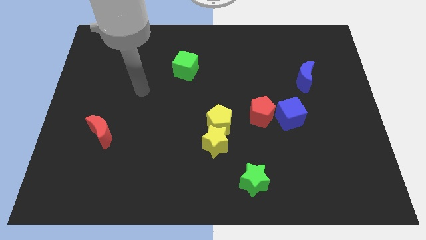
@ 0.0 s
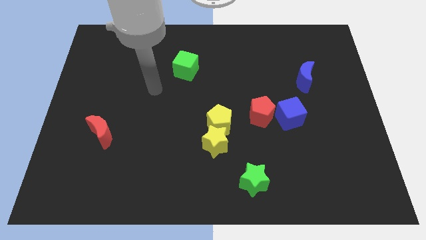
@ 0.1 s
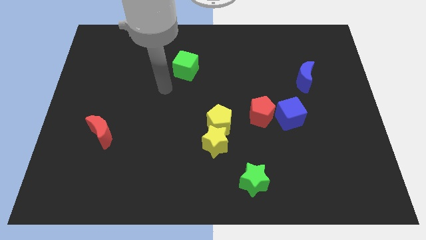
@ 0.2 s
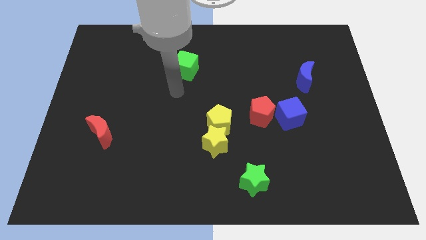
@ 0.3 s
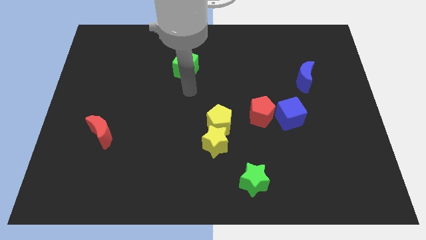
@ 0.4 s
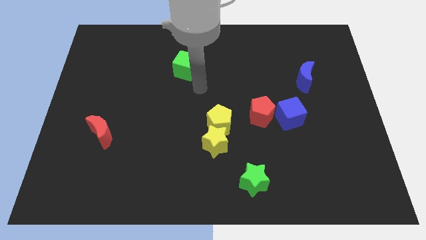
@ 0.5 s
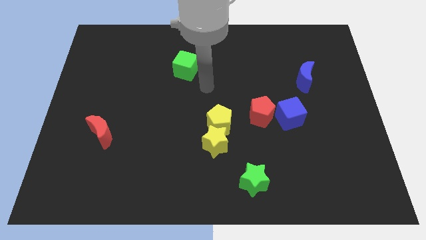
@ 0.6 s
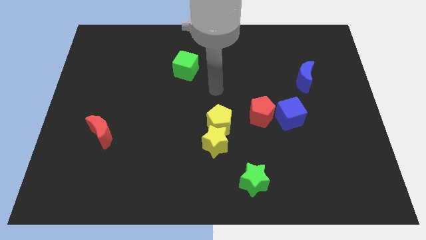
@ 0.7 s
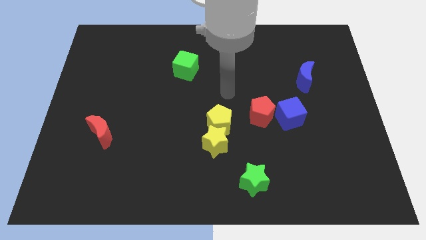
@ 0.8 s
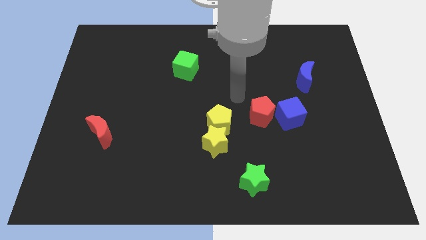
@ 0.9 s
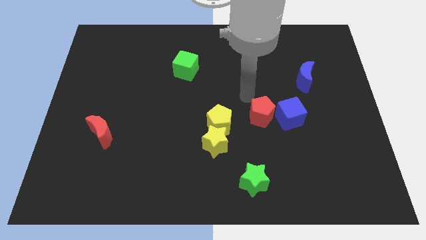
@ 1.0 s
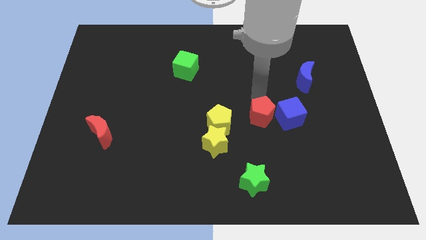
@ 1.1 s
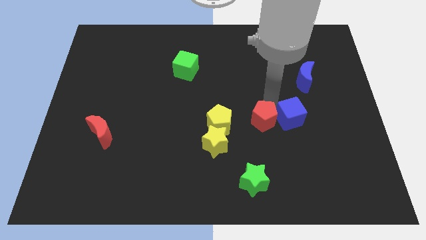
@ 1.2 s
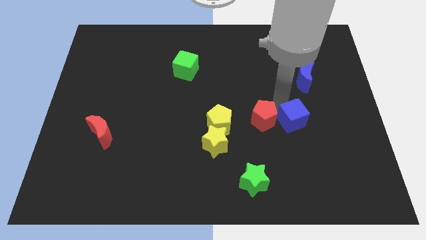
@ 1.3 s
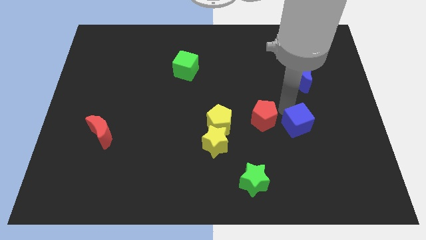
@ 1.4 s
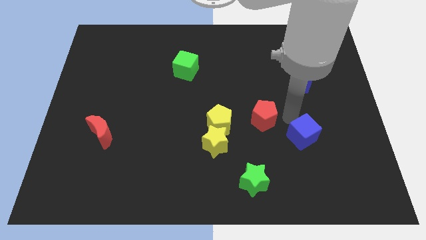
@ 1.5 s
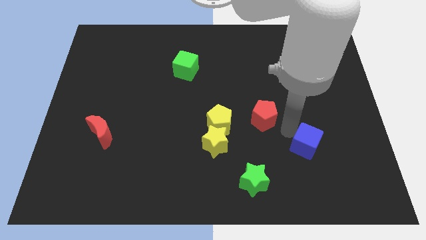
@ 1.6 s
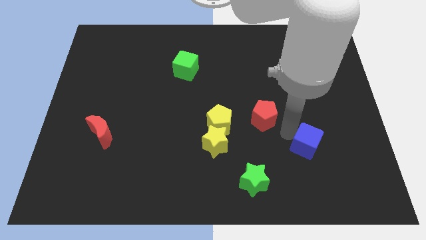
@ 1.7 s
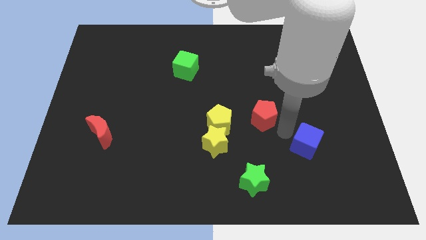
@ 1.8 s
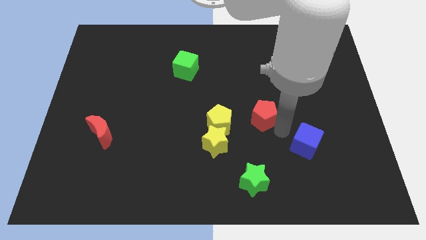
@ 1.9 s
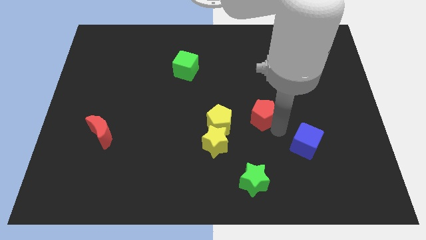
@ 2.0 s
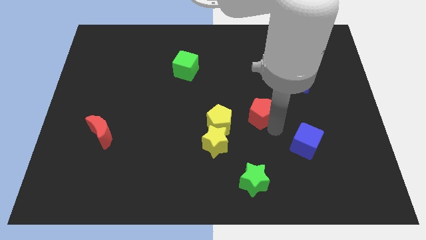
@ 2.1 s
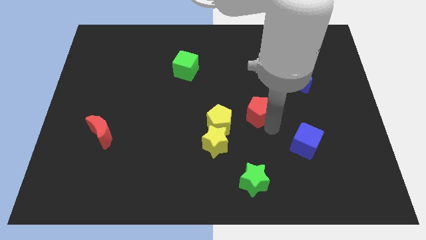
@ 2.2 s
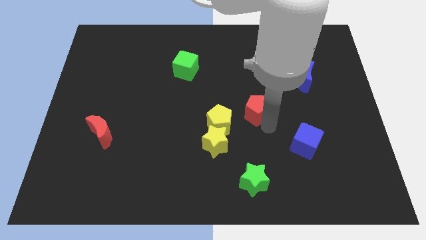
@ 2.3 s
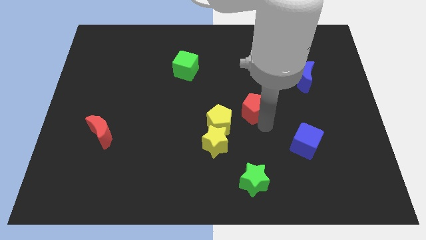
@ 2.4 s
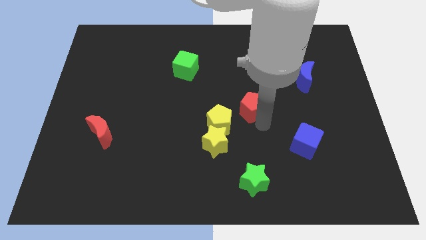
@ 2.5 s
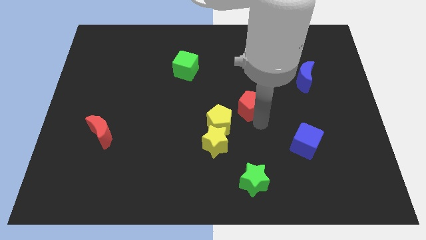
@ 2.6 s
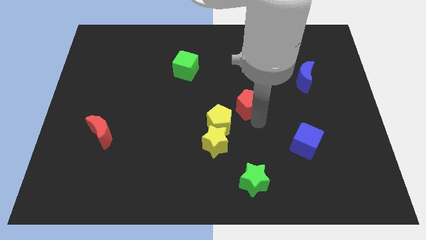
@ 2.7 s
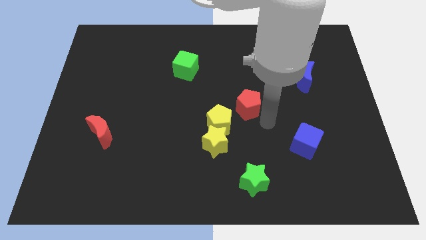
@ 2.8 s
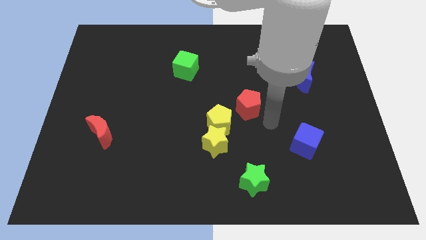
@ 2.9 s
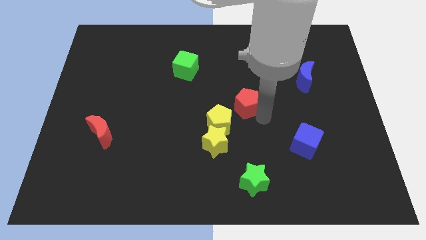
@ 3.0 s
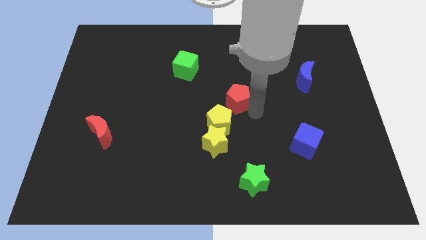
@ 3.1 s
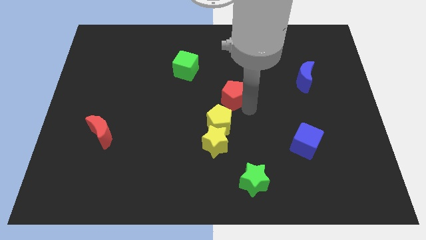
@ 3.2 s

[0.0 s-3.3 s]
move the red pentagon a little bit up and to the left

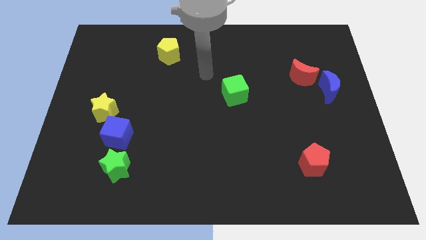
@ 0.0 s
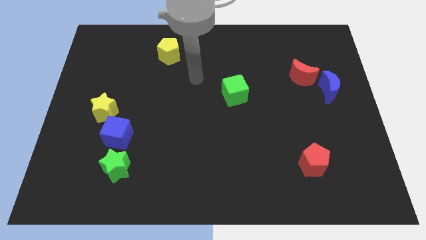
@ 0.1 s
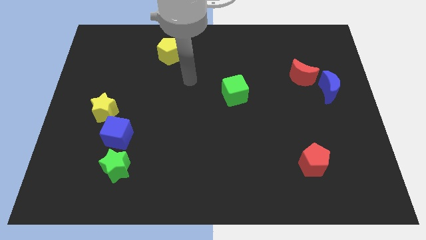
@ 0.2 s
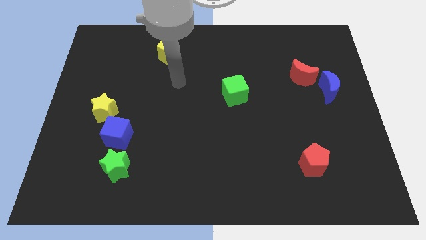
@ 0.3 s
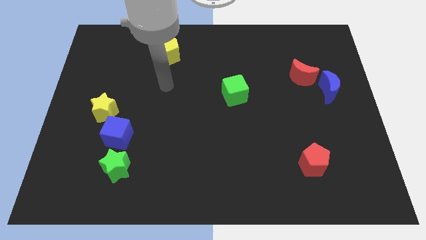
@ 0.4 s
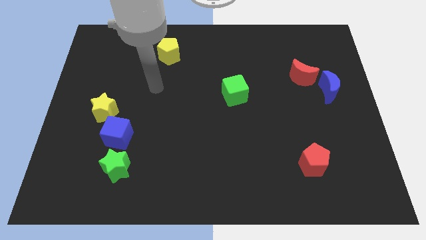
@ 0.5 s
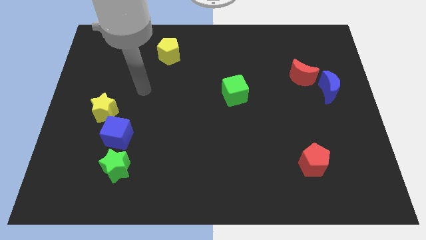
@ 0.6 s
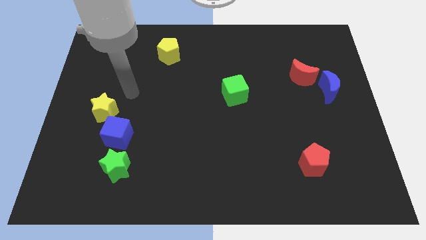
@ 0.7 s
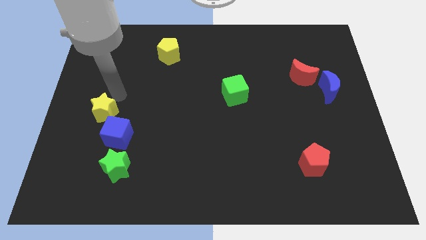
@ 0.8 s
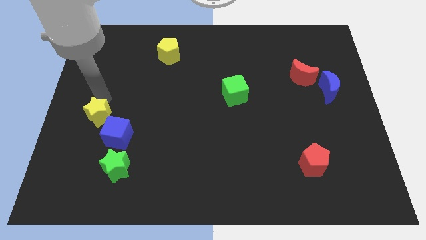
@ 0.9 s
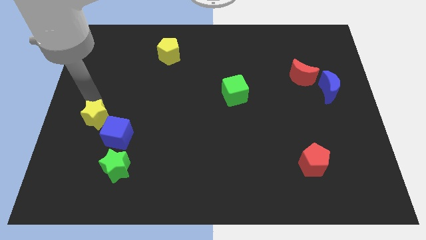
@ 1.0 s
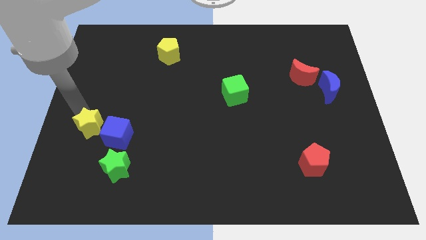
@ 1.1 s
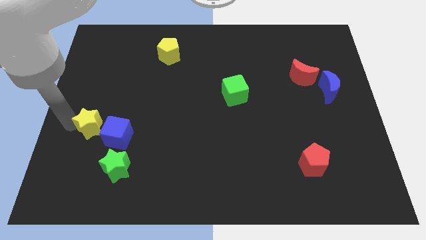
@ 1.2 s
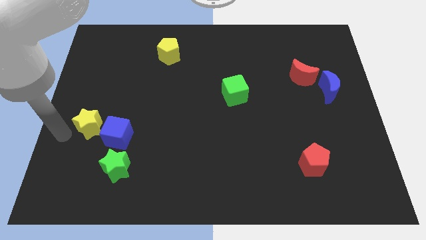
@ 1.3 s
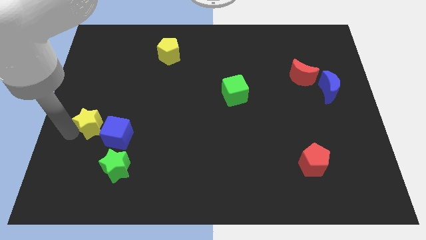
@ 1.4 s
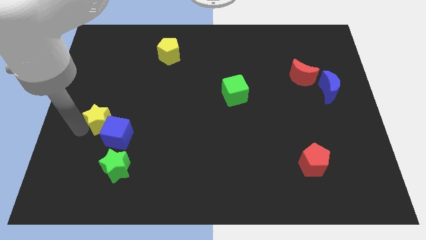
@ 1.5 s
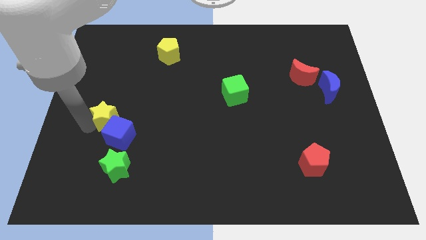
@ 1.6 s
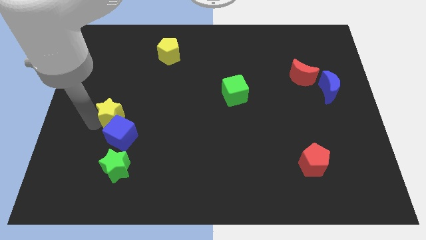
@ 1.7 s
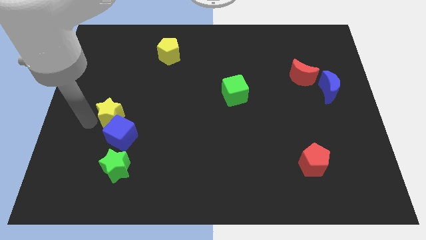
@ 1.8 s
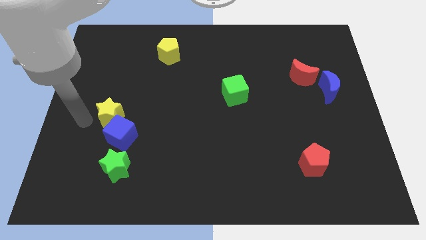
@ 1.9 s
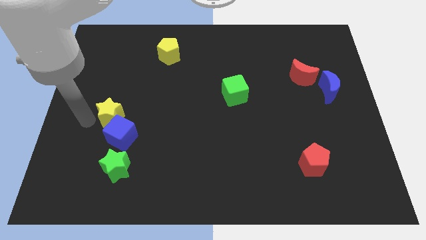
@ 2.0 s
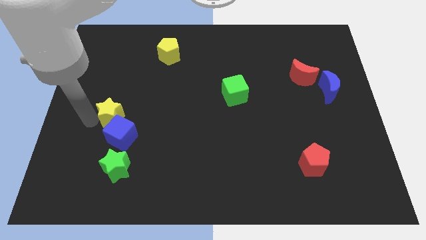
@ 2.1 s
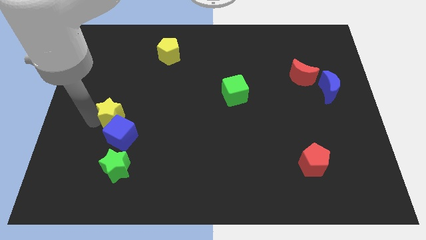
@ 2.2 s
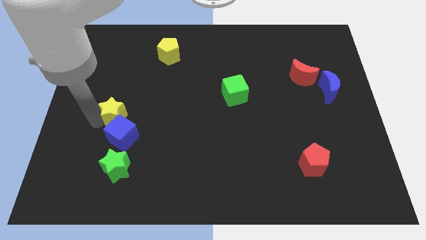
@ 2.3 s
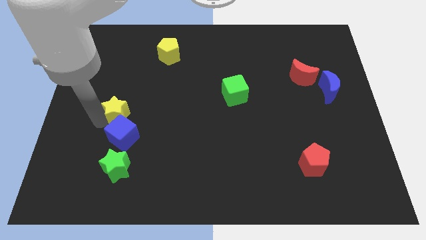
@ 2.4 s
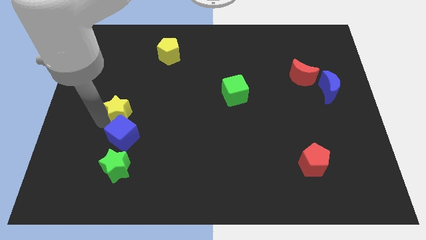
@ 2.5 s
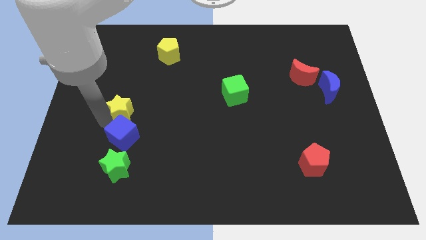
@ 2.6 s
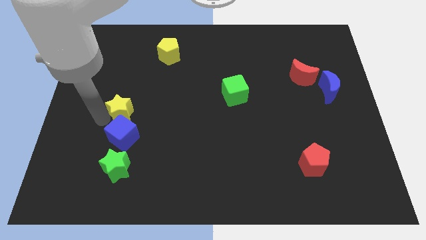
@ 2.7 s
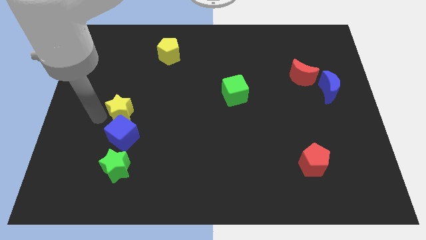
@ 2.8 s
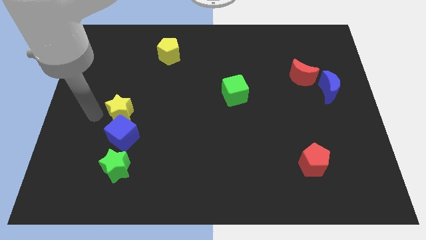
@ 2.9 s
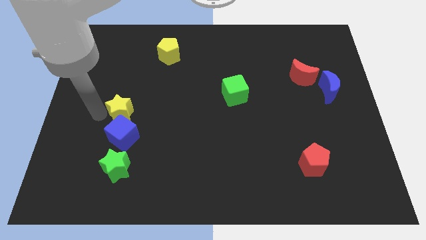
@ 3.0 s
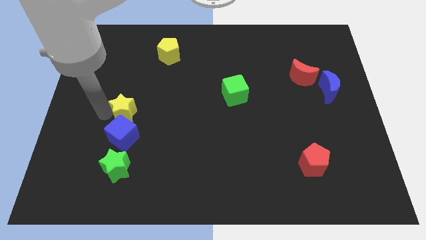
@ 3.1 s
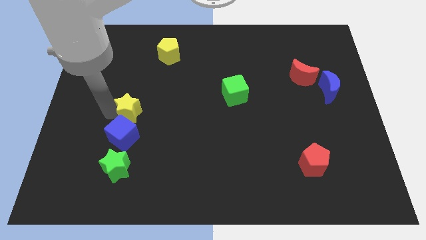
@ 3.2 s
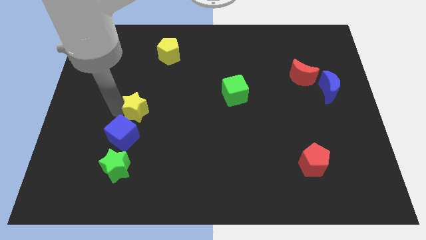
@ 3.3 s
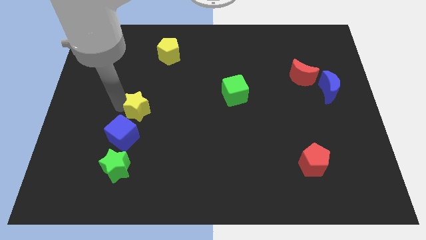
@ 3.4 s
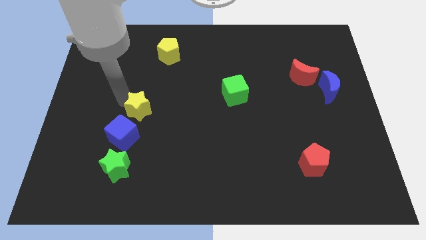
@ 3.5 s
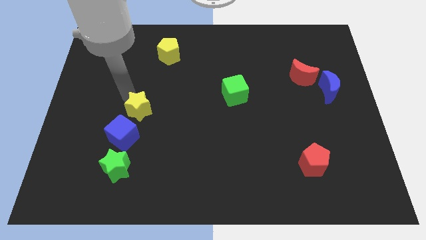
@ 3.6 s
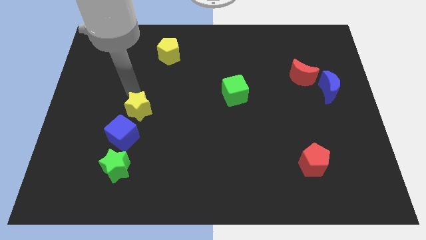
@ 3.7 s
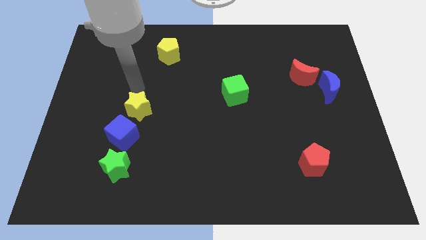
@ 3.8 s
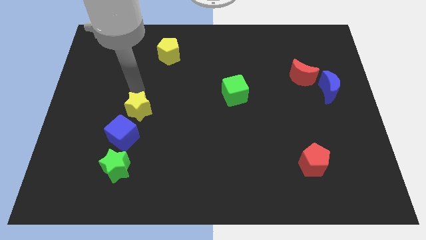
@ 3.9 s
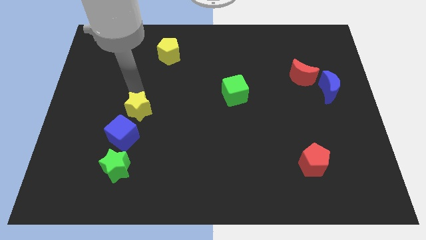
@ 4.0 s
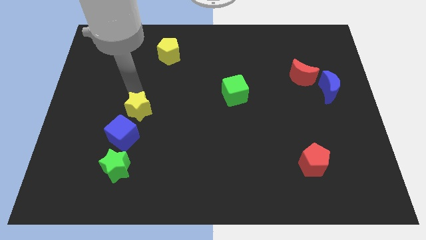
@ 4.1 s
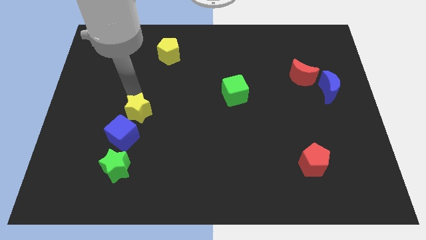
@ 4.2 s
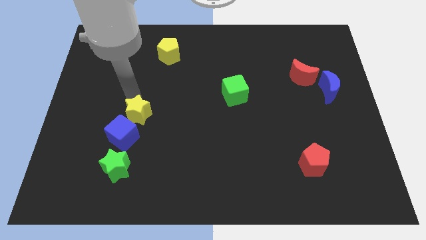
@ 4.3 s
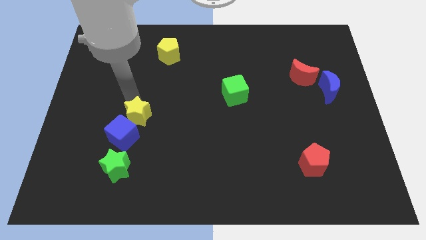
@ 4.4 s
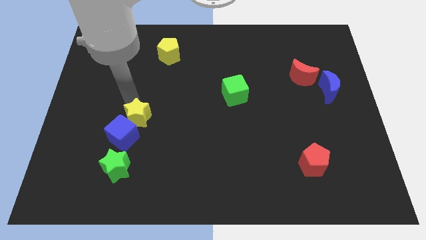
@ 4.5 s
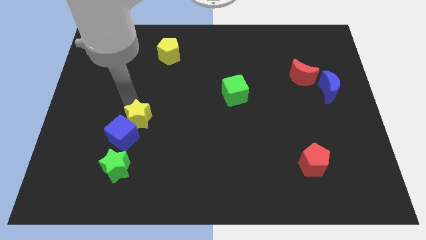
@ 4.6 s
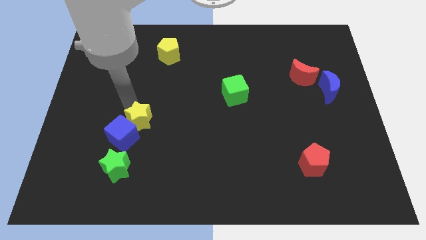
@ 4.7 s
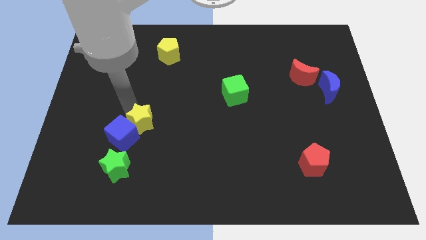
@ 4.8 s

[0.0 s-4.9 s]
push the yellow star down and right diagonally a little
